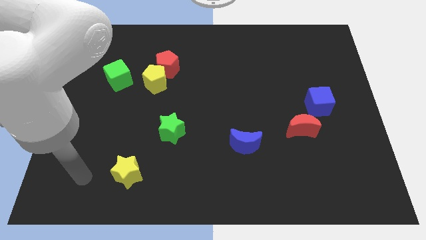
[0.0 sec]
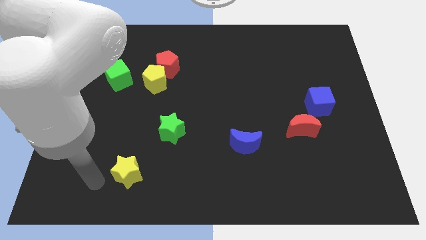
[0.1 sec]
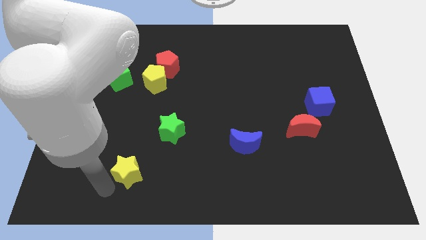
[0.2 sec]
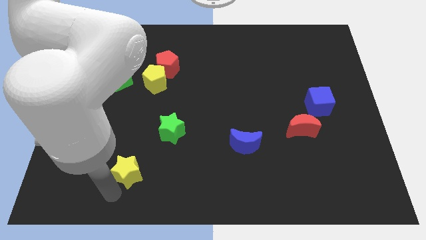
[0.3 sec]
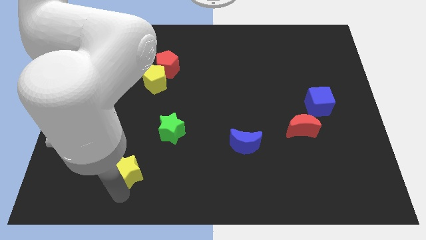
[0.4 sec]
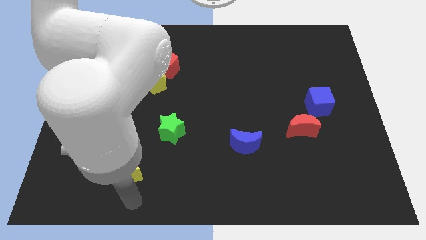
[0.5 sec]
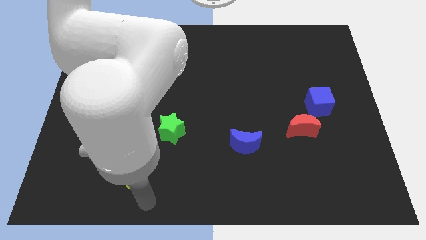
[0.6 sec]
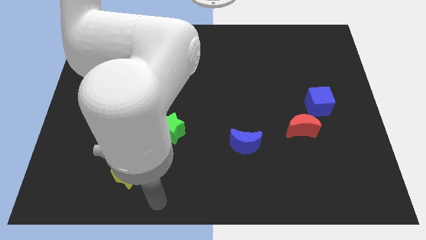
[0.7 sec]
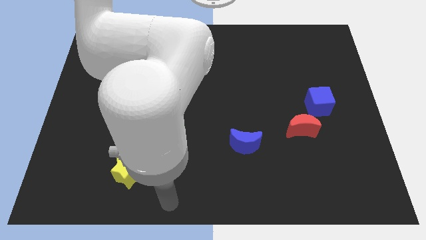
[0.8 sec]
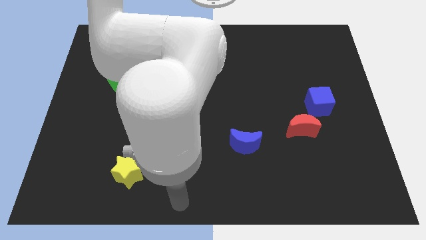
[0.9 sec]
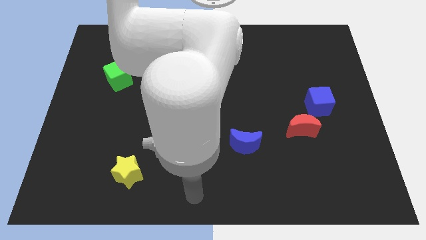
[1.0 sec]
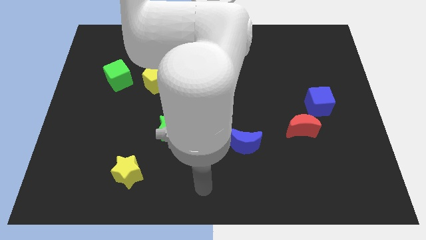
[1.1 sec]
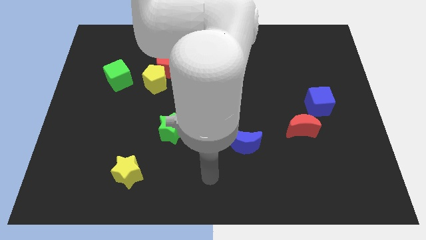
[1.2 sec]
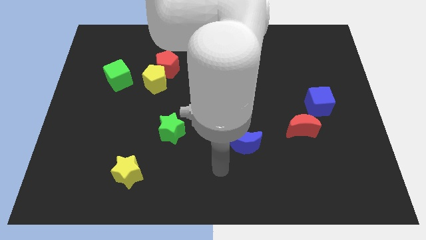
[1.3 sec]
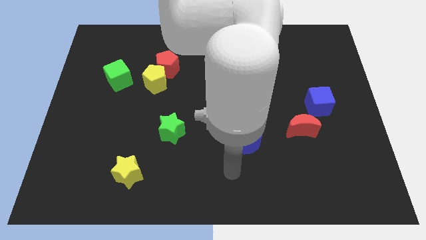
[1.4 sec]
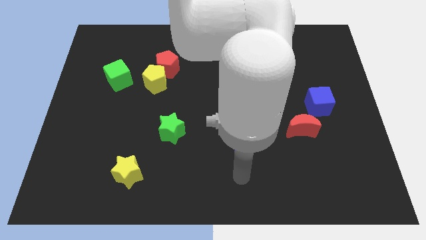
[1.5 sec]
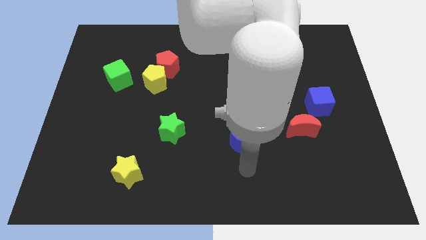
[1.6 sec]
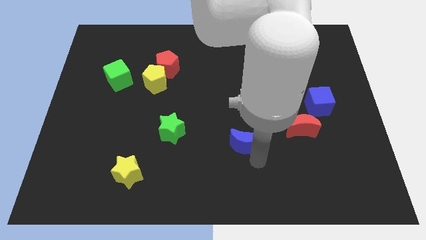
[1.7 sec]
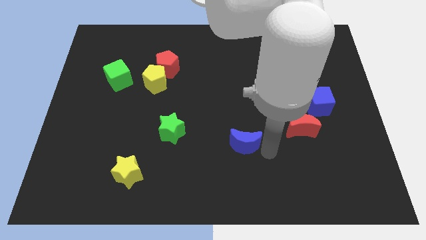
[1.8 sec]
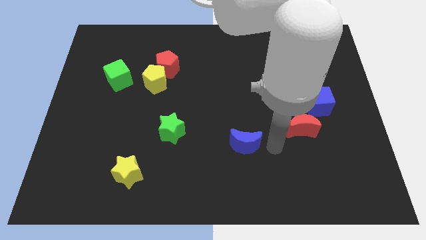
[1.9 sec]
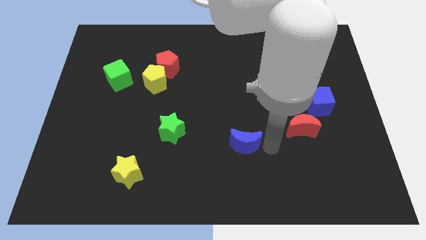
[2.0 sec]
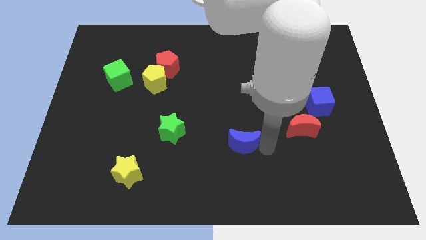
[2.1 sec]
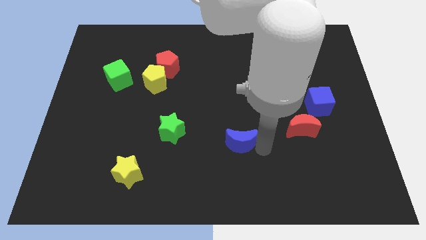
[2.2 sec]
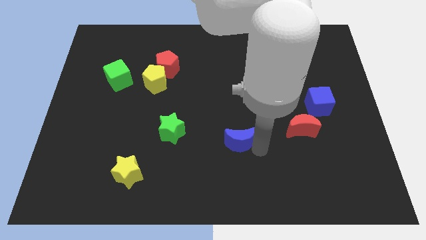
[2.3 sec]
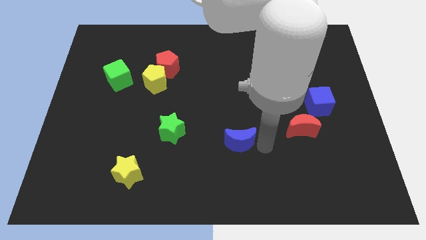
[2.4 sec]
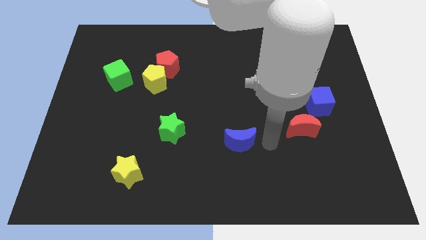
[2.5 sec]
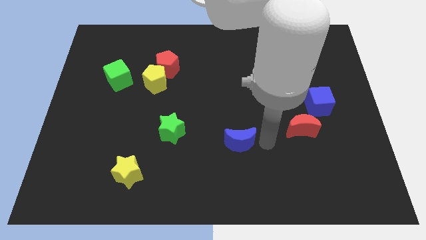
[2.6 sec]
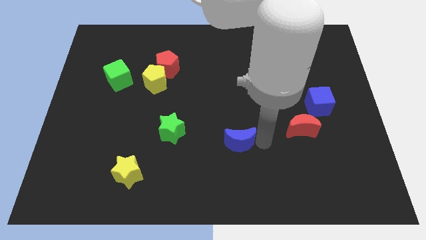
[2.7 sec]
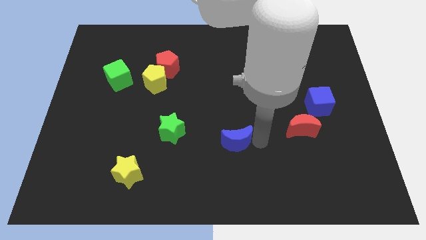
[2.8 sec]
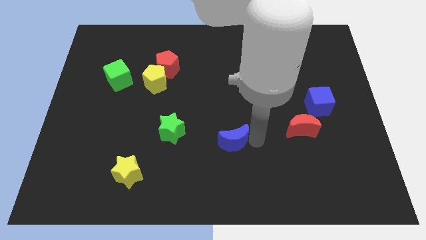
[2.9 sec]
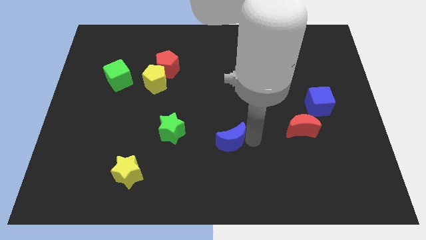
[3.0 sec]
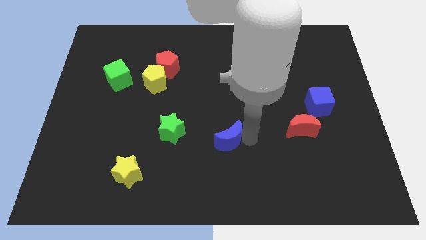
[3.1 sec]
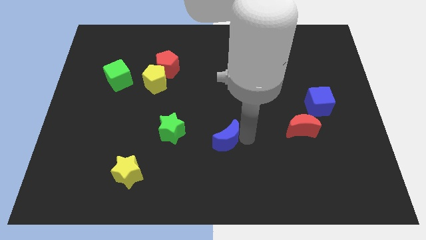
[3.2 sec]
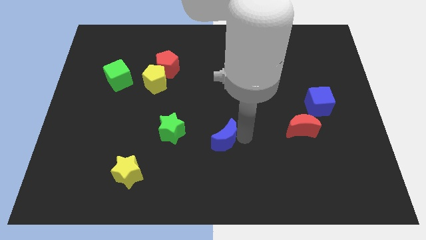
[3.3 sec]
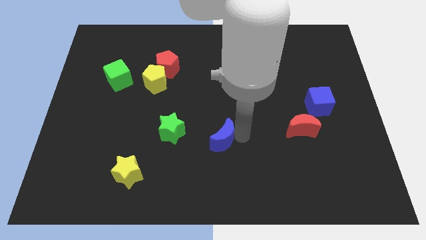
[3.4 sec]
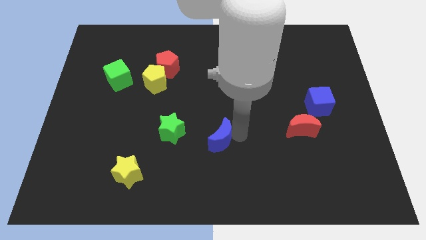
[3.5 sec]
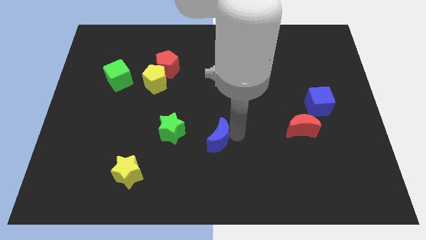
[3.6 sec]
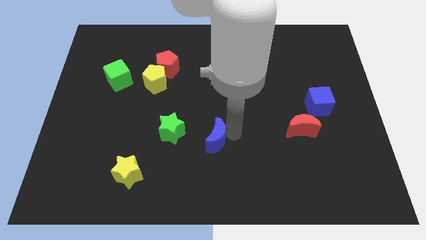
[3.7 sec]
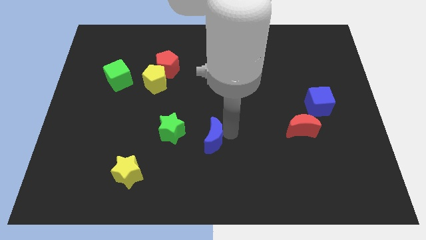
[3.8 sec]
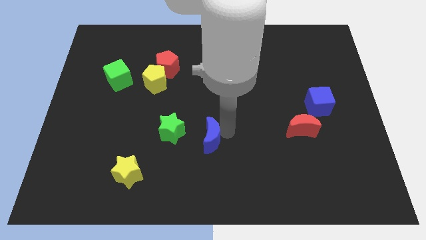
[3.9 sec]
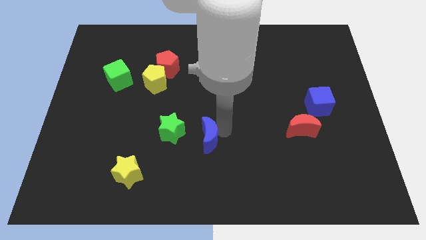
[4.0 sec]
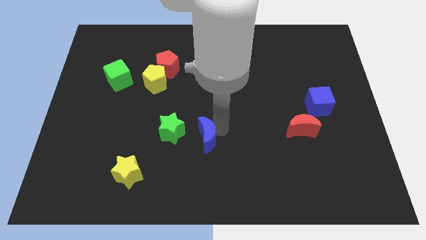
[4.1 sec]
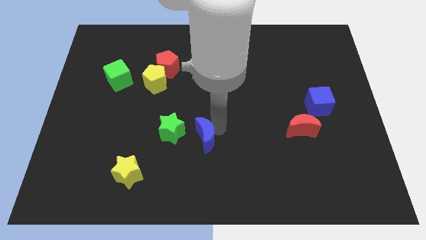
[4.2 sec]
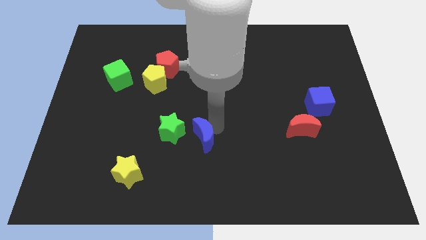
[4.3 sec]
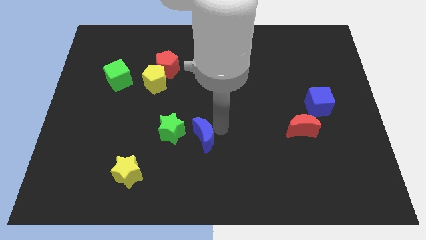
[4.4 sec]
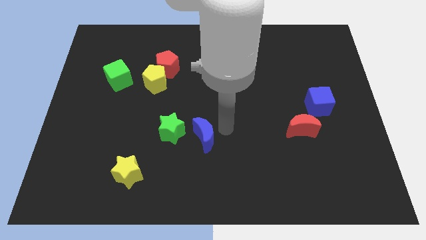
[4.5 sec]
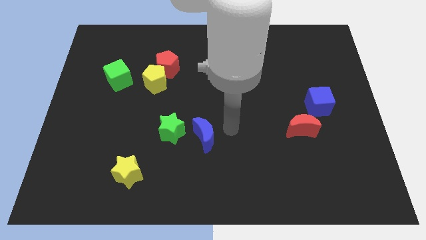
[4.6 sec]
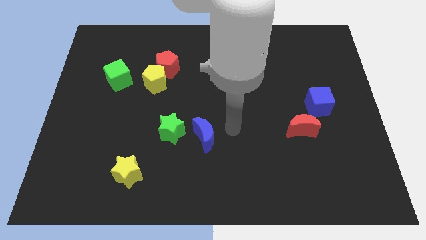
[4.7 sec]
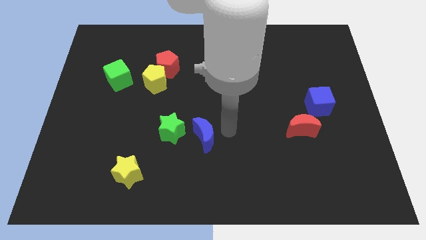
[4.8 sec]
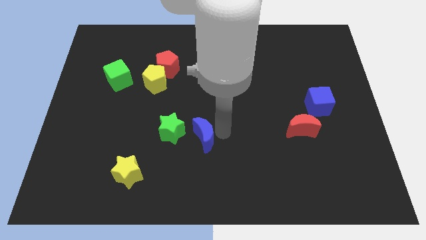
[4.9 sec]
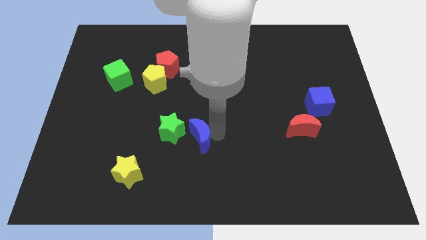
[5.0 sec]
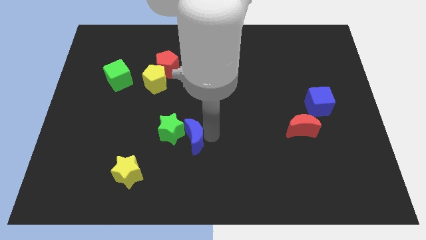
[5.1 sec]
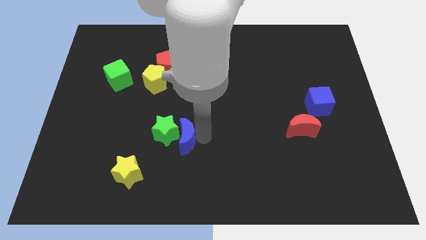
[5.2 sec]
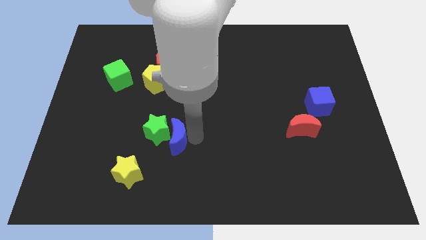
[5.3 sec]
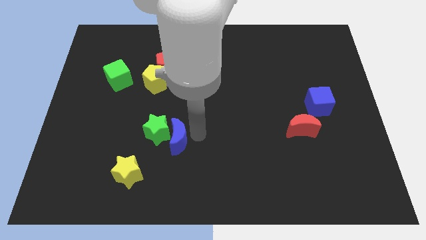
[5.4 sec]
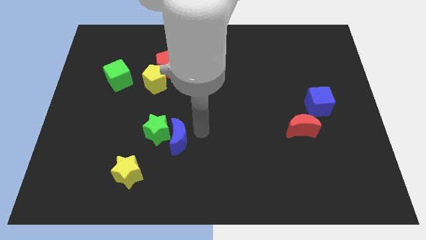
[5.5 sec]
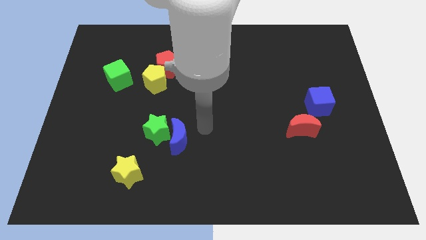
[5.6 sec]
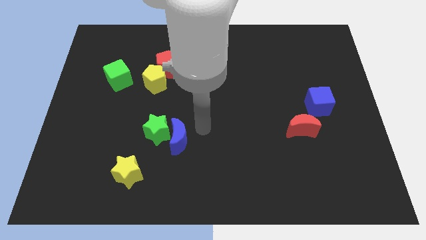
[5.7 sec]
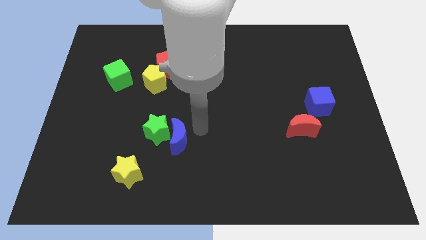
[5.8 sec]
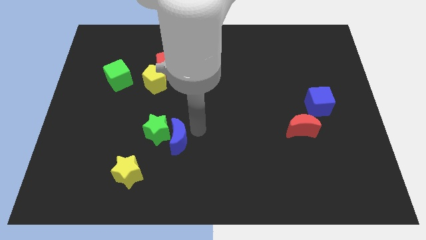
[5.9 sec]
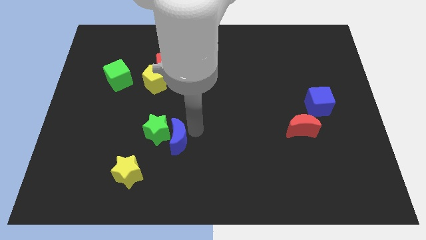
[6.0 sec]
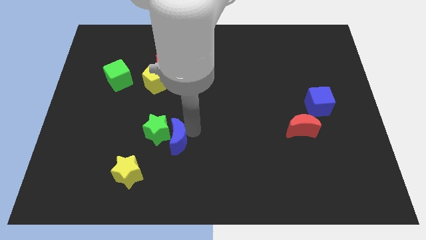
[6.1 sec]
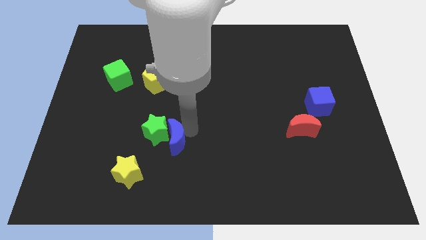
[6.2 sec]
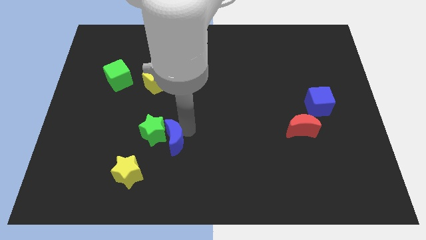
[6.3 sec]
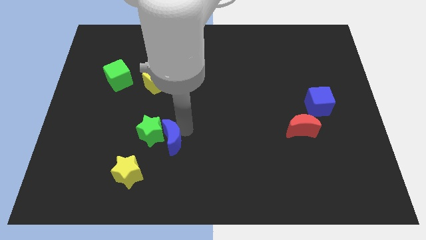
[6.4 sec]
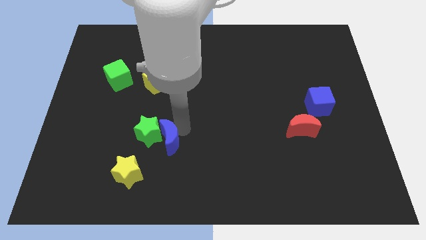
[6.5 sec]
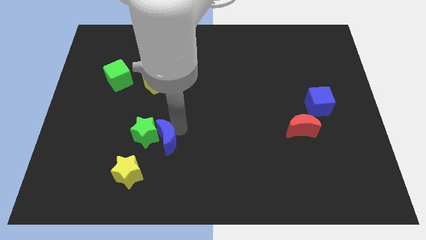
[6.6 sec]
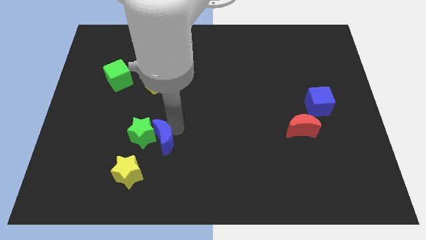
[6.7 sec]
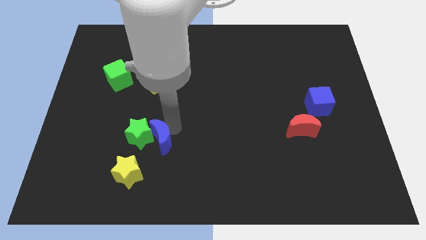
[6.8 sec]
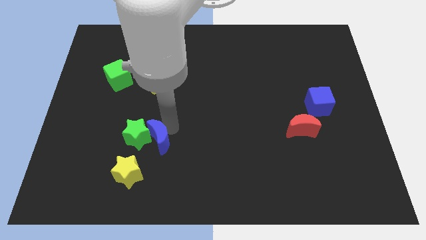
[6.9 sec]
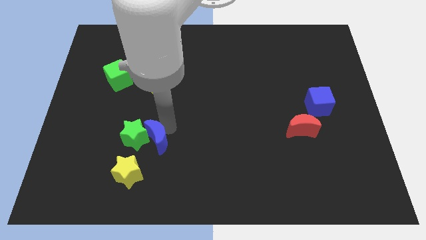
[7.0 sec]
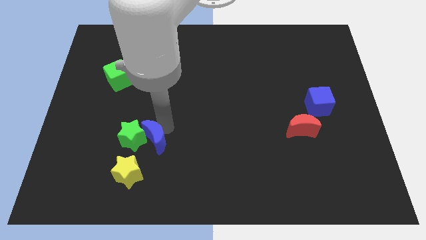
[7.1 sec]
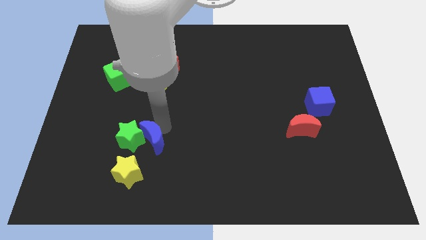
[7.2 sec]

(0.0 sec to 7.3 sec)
push the blue moon left

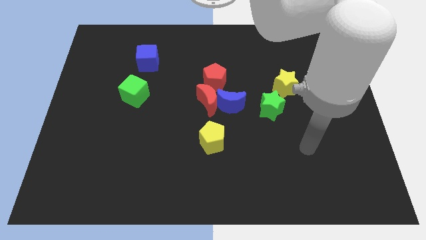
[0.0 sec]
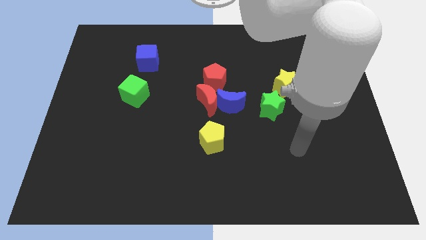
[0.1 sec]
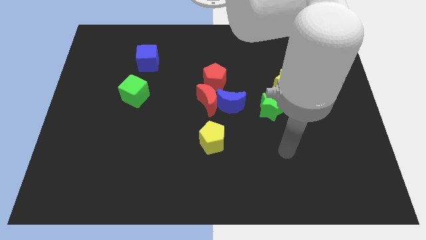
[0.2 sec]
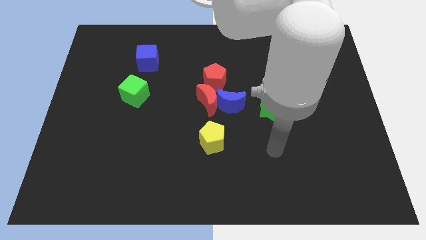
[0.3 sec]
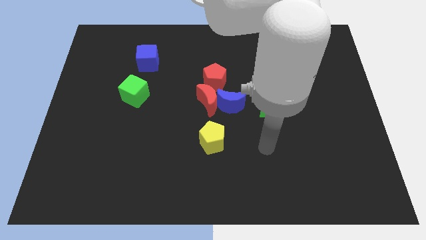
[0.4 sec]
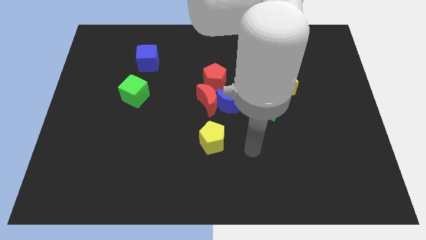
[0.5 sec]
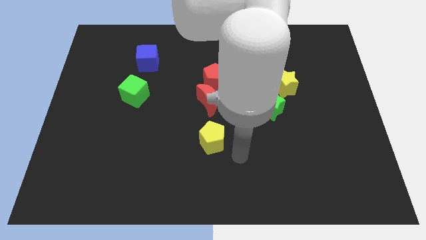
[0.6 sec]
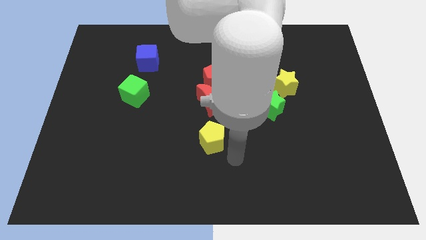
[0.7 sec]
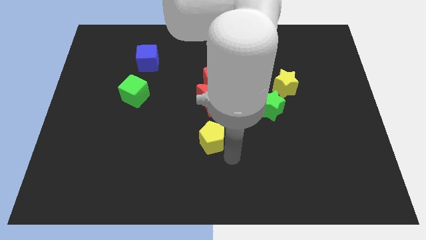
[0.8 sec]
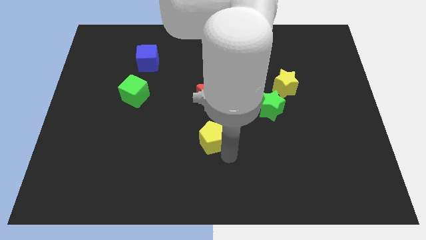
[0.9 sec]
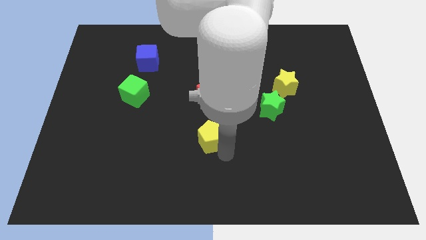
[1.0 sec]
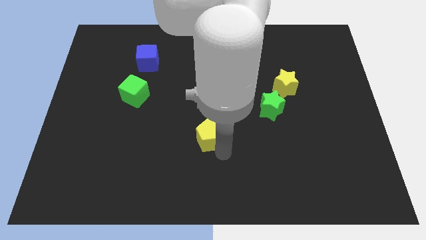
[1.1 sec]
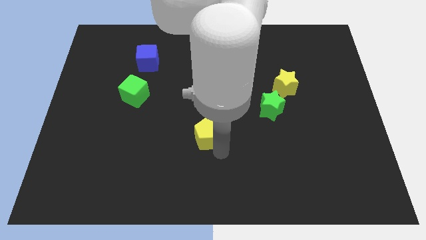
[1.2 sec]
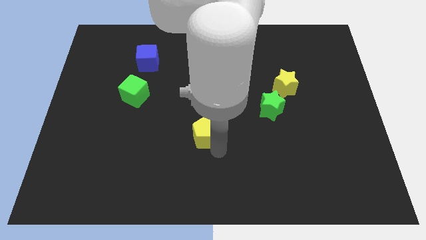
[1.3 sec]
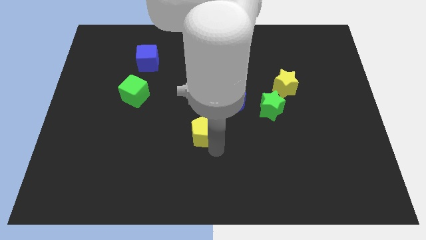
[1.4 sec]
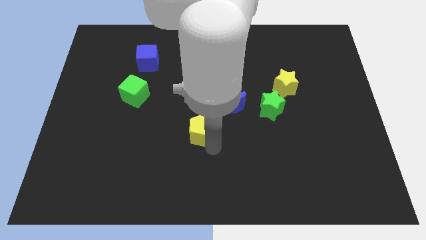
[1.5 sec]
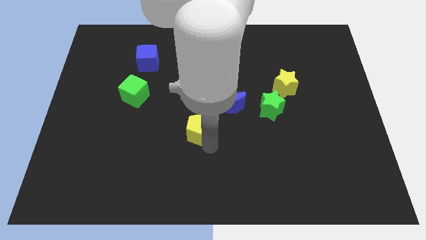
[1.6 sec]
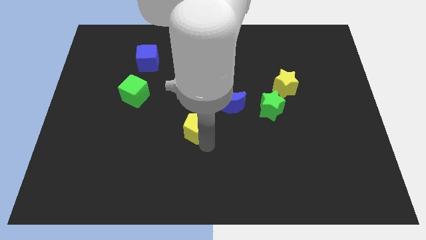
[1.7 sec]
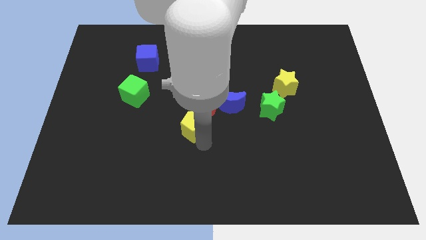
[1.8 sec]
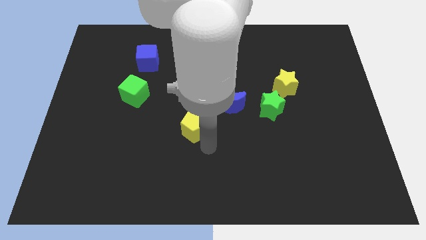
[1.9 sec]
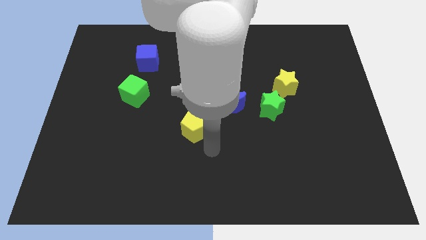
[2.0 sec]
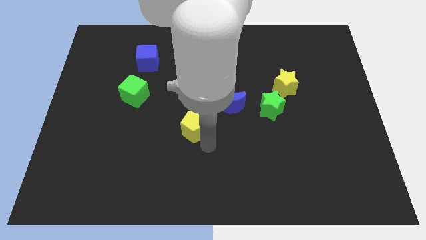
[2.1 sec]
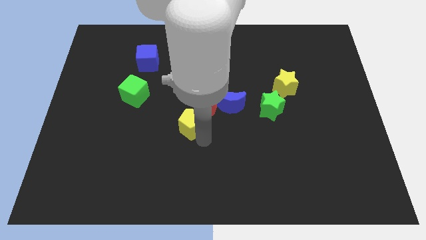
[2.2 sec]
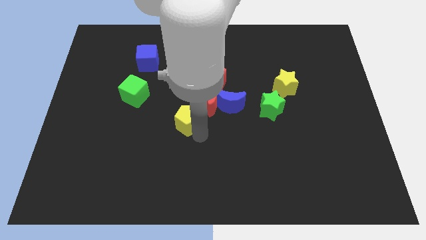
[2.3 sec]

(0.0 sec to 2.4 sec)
move the yellow pentagon upwards and left diagonally slightly
